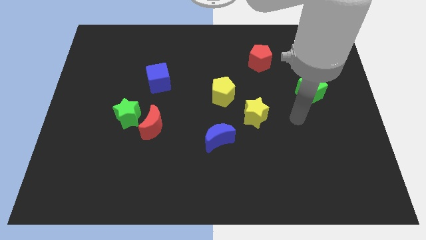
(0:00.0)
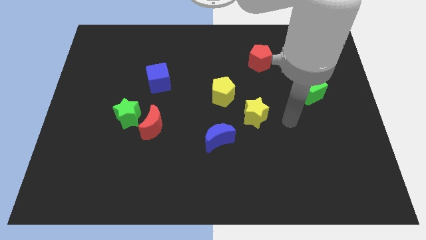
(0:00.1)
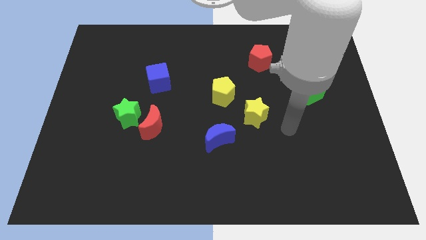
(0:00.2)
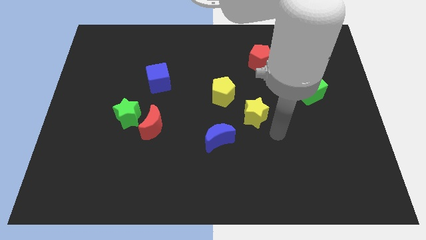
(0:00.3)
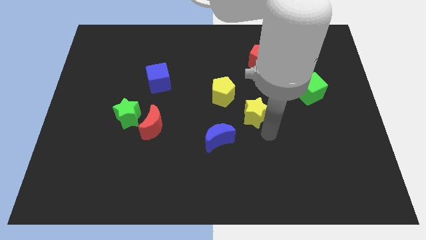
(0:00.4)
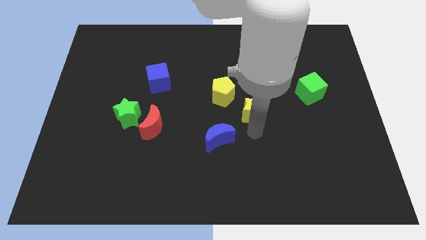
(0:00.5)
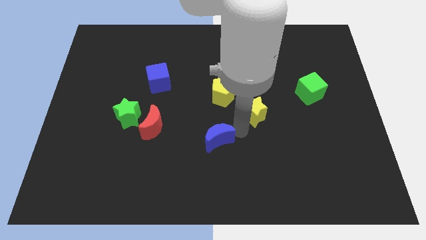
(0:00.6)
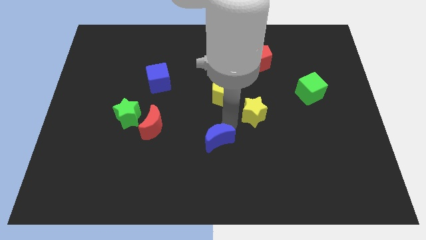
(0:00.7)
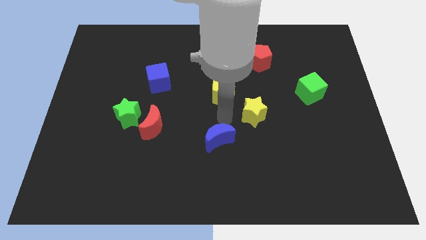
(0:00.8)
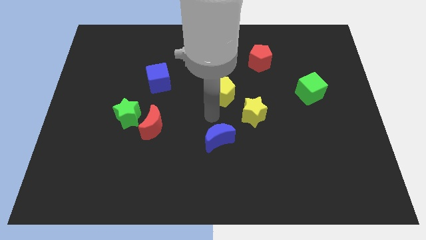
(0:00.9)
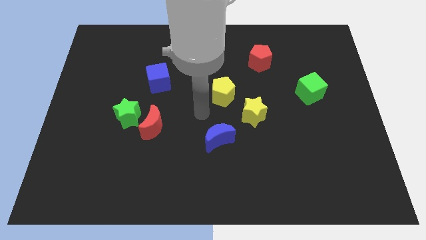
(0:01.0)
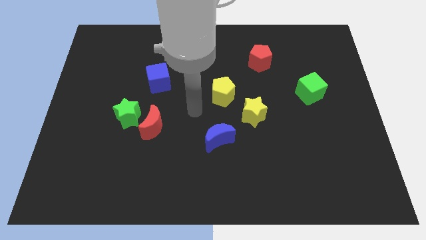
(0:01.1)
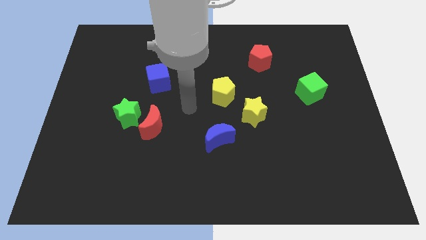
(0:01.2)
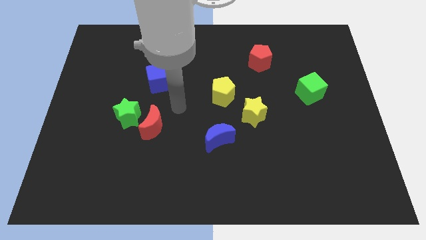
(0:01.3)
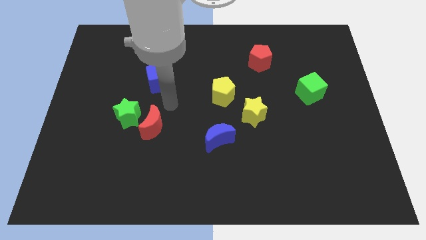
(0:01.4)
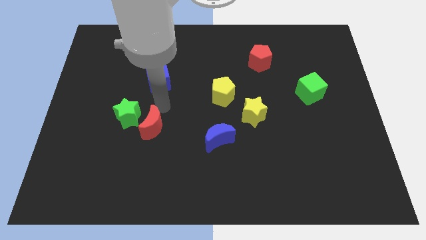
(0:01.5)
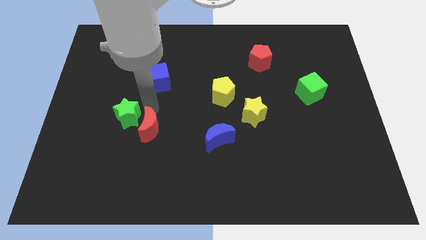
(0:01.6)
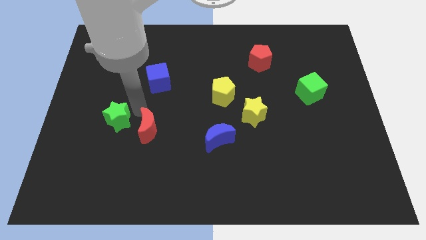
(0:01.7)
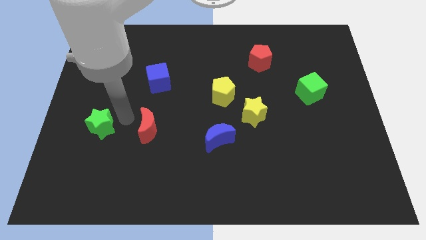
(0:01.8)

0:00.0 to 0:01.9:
pull the red moon apart from the green star

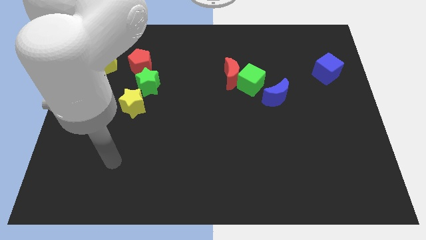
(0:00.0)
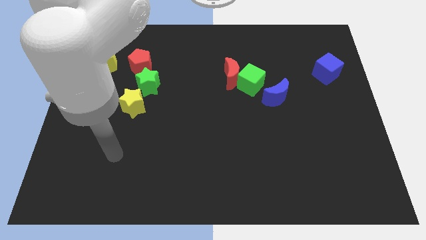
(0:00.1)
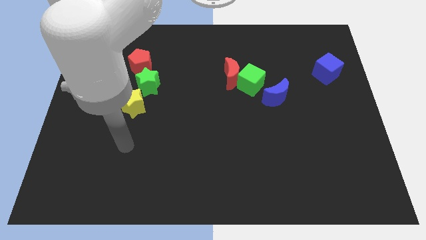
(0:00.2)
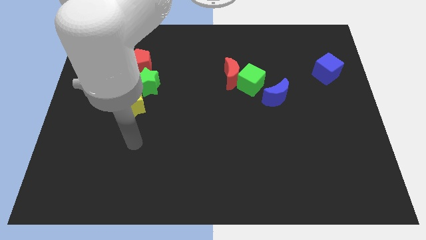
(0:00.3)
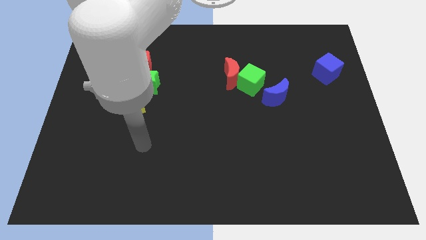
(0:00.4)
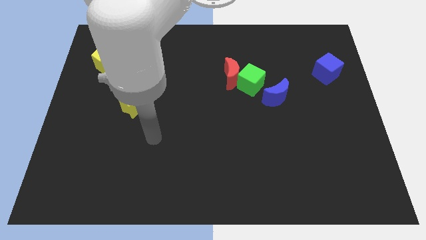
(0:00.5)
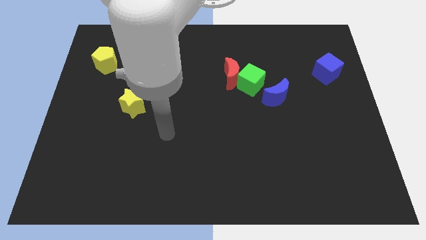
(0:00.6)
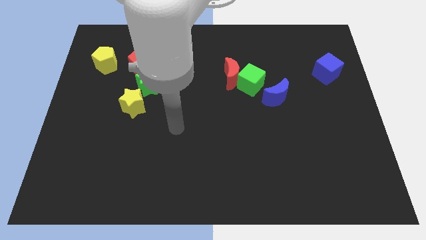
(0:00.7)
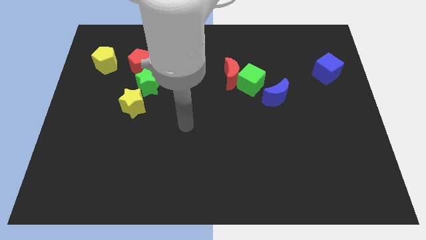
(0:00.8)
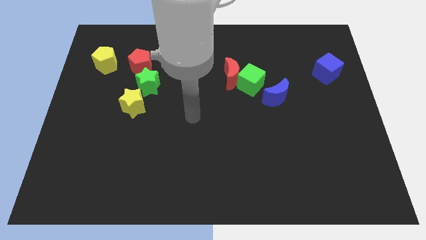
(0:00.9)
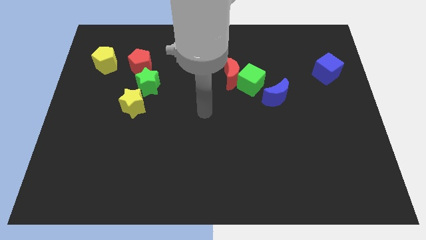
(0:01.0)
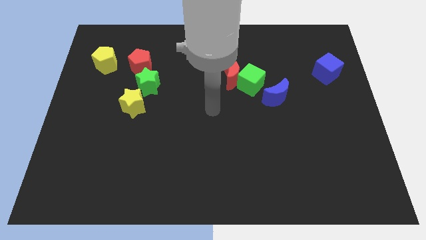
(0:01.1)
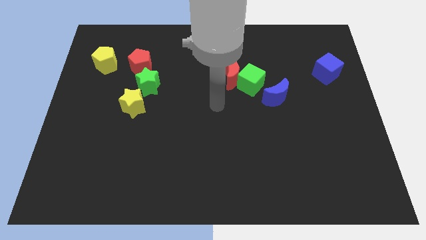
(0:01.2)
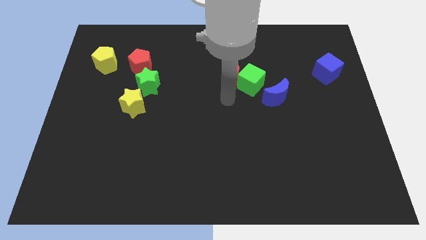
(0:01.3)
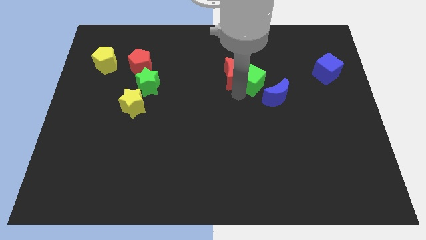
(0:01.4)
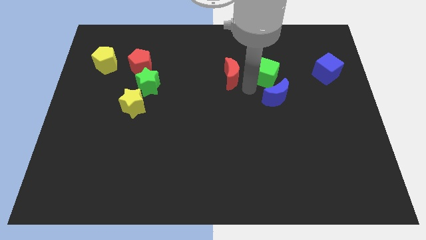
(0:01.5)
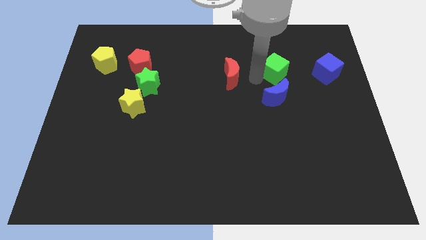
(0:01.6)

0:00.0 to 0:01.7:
pull the red moon apart from the green cube

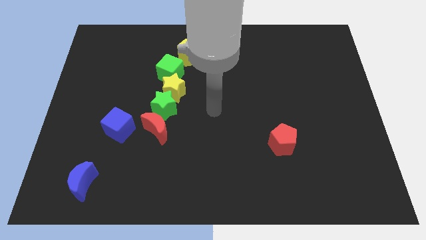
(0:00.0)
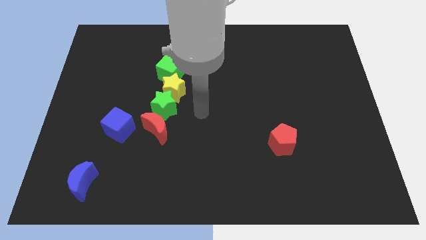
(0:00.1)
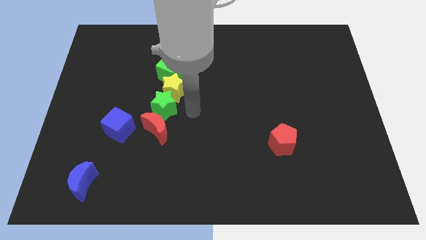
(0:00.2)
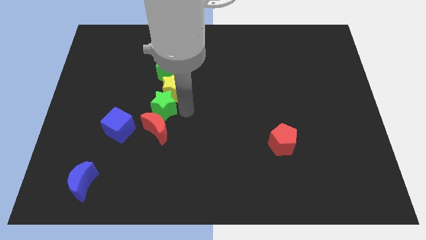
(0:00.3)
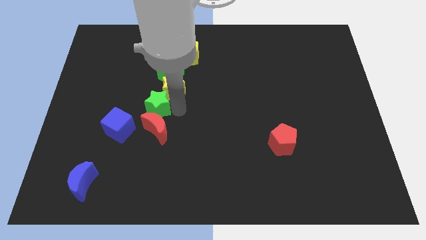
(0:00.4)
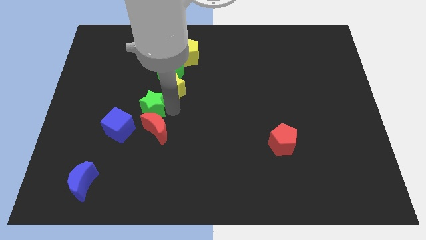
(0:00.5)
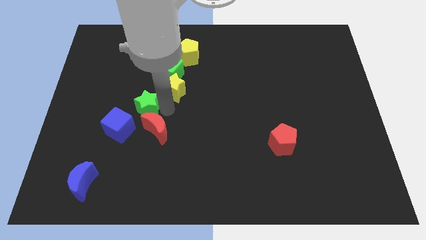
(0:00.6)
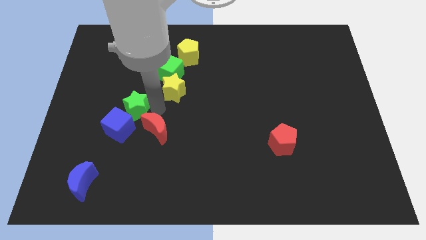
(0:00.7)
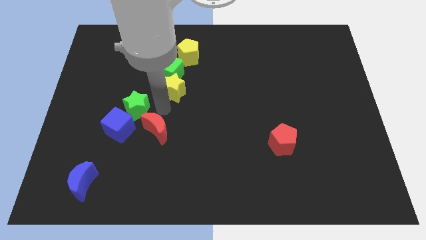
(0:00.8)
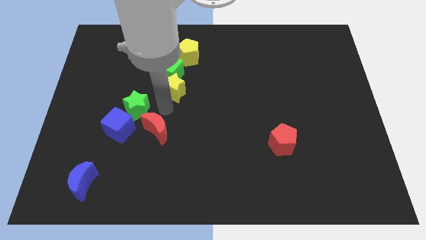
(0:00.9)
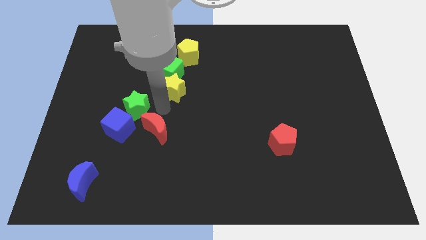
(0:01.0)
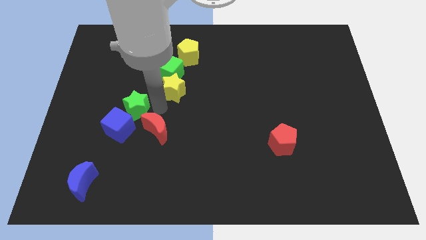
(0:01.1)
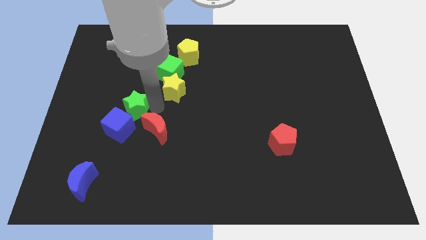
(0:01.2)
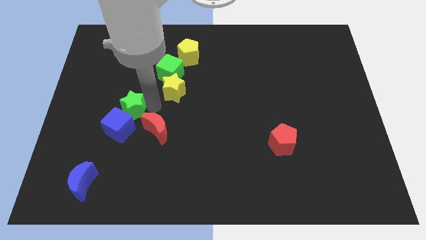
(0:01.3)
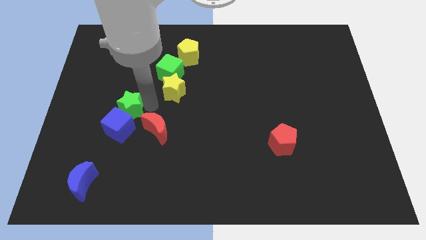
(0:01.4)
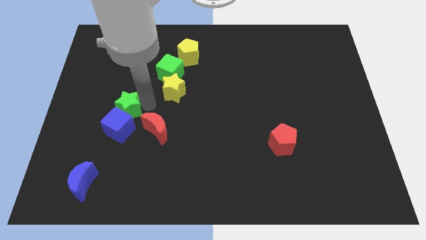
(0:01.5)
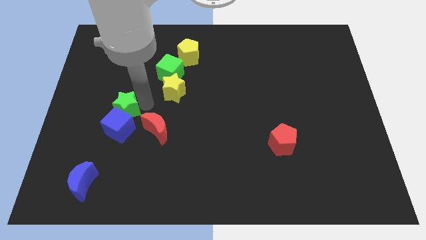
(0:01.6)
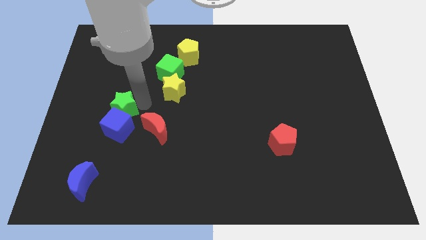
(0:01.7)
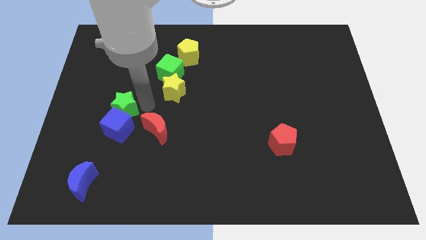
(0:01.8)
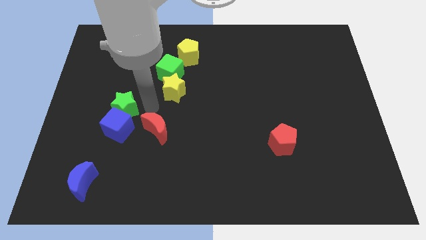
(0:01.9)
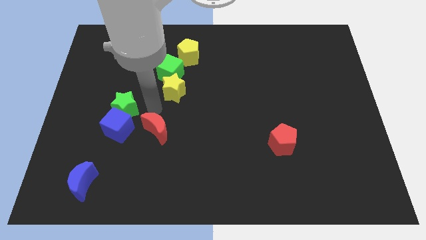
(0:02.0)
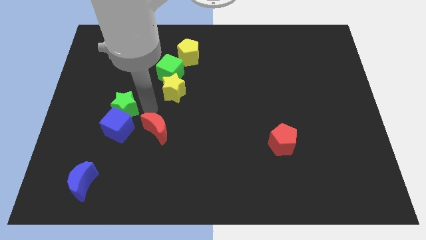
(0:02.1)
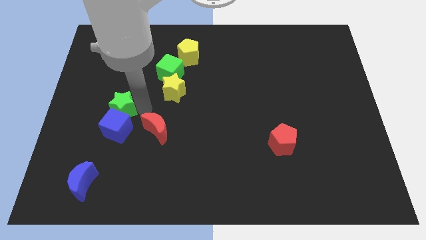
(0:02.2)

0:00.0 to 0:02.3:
move the green star away from the yellow star and red moon

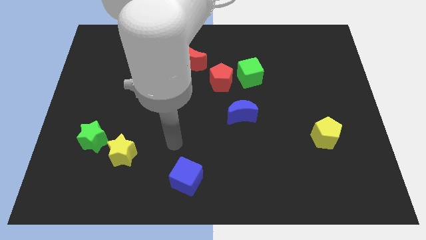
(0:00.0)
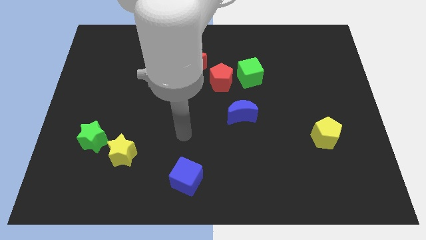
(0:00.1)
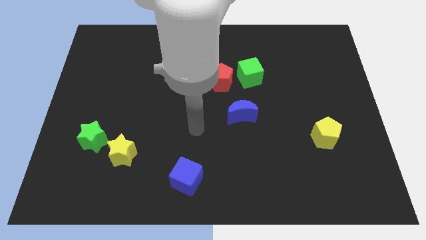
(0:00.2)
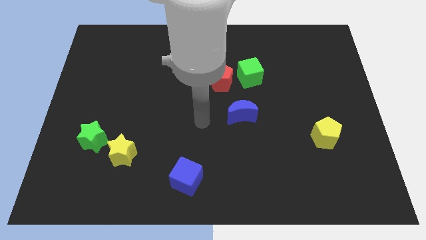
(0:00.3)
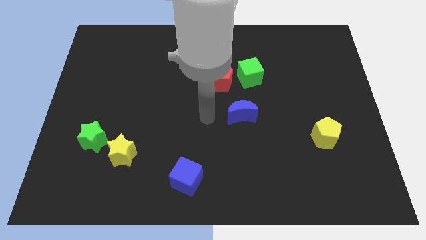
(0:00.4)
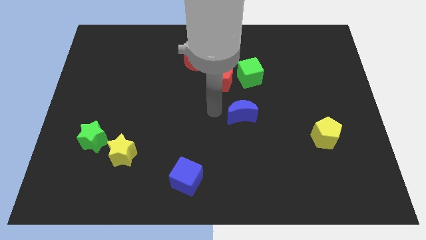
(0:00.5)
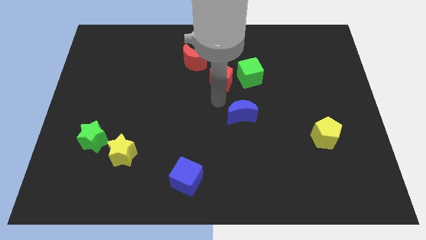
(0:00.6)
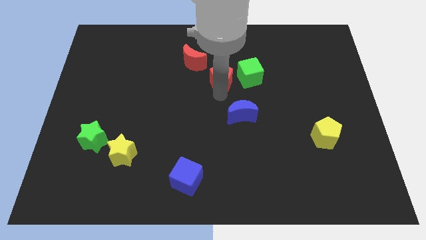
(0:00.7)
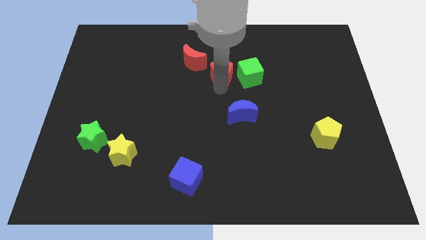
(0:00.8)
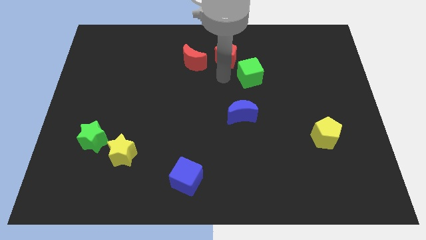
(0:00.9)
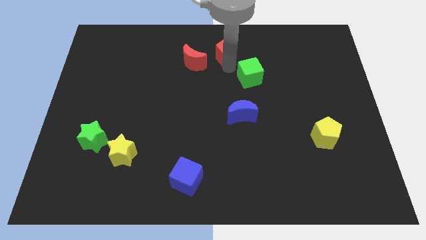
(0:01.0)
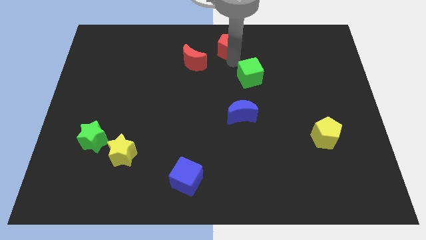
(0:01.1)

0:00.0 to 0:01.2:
separate the green cube from the red pentagon

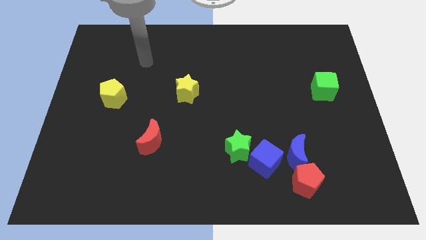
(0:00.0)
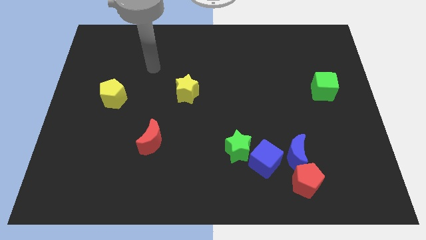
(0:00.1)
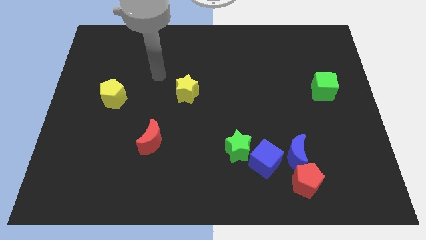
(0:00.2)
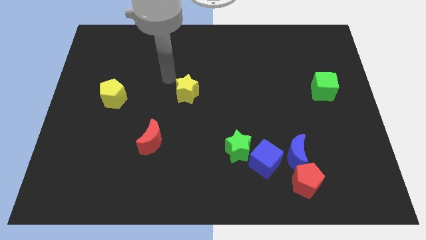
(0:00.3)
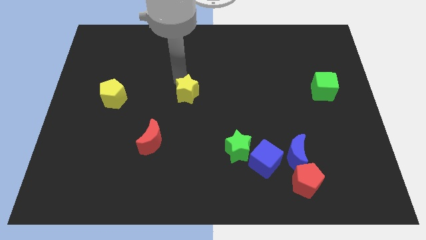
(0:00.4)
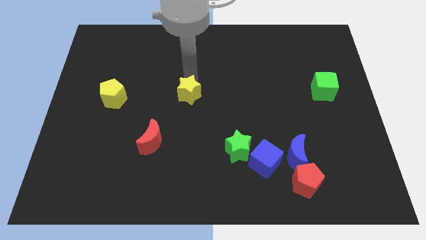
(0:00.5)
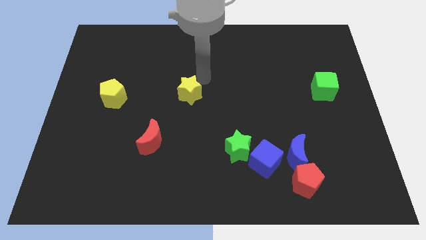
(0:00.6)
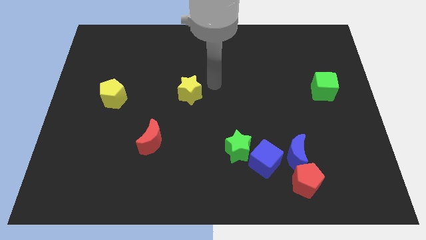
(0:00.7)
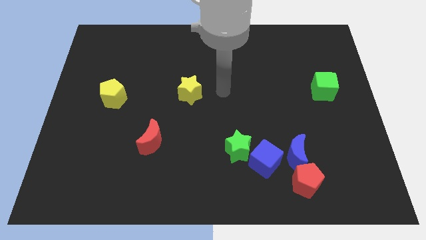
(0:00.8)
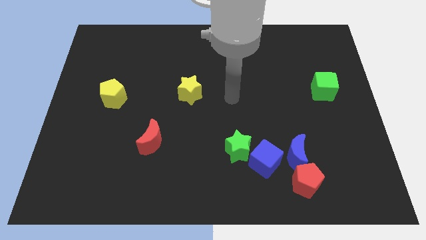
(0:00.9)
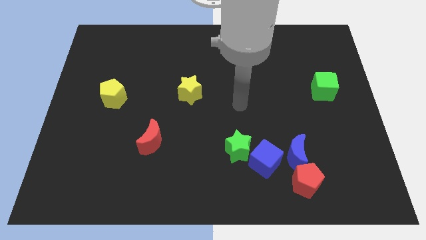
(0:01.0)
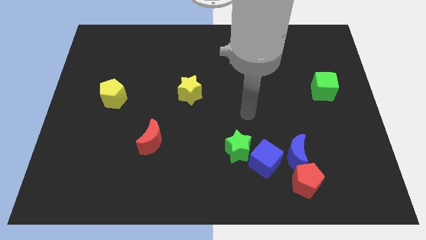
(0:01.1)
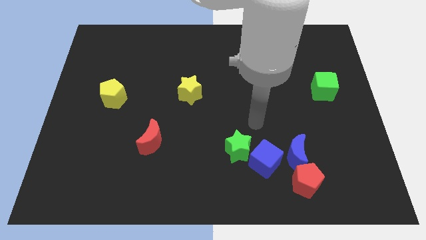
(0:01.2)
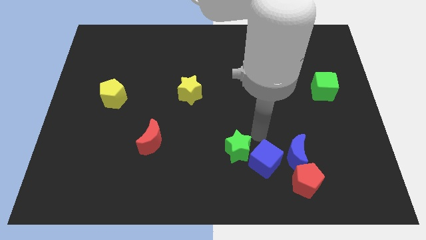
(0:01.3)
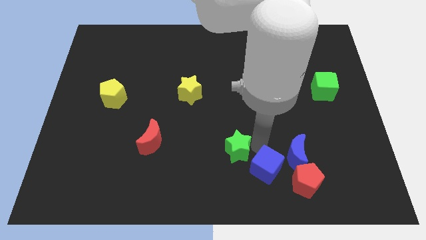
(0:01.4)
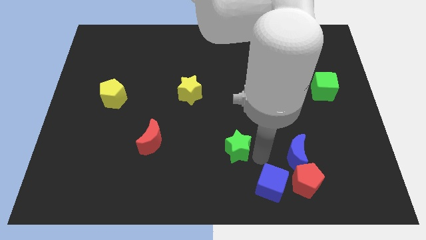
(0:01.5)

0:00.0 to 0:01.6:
pull the green star apart from the blue cube

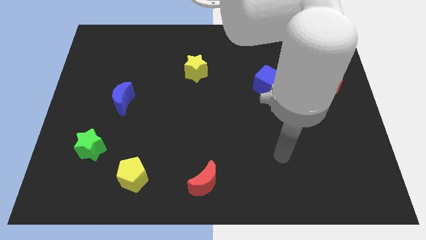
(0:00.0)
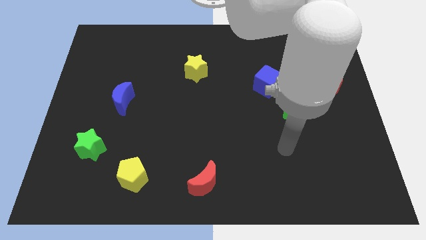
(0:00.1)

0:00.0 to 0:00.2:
move the blue cube away from the green cube

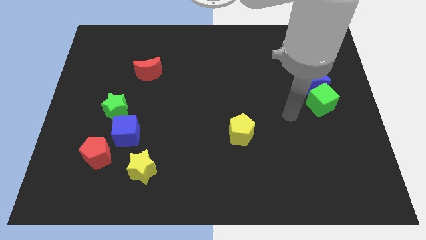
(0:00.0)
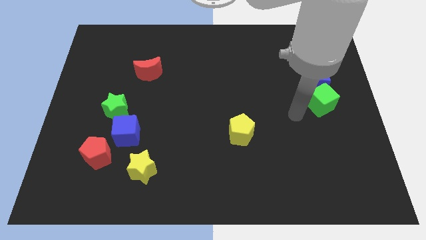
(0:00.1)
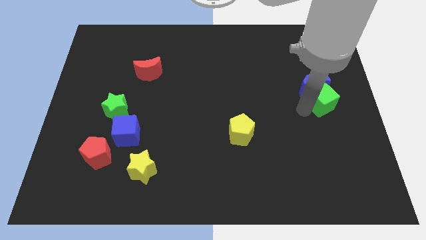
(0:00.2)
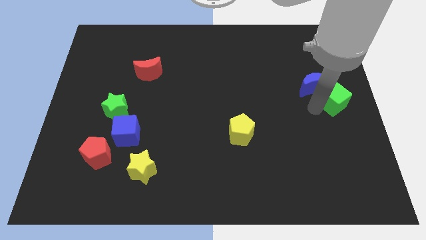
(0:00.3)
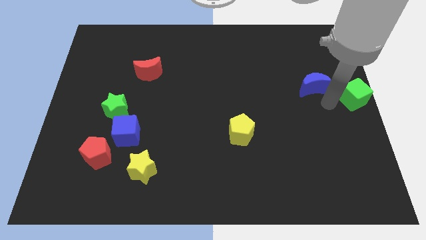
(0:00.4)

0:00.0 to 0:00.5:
move the blue moon away from the green cube
